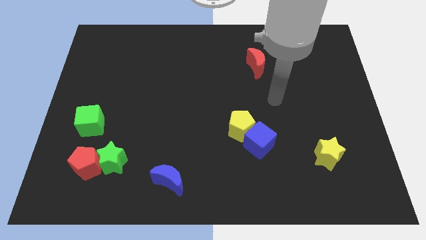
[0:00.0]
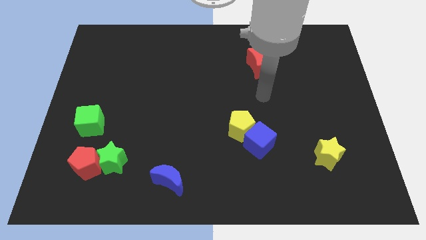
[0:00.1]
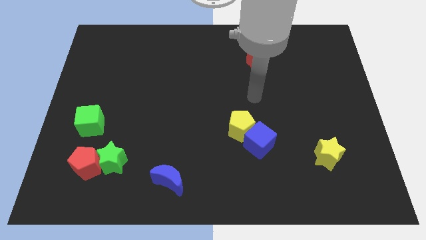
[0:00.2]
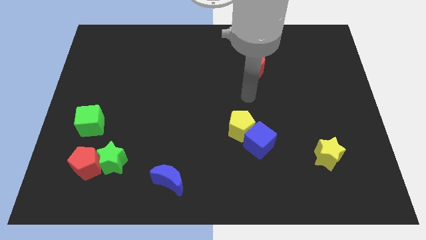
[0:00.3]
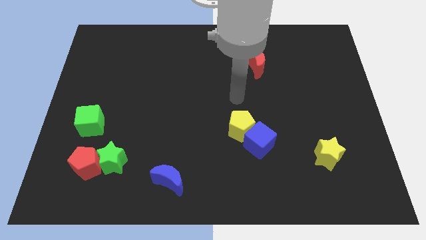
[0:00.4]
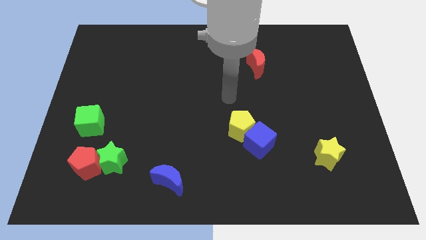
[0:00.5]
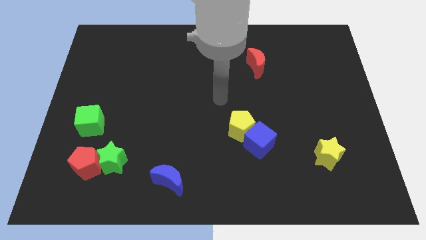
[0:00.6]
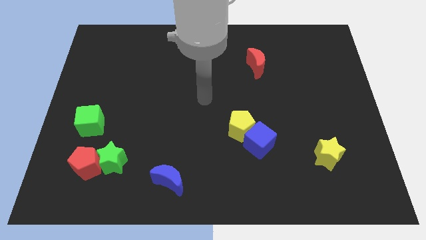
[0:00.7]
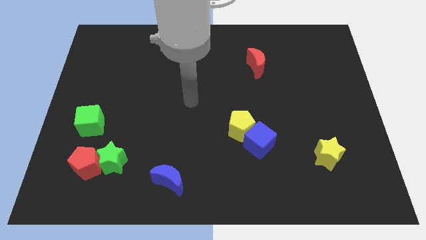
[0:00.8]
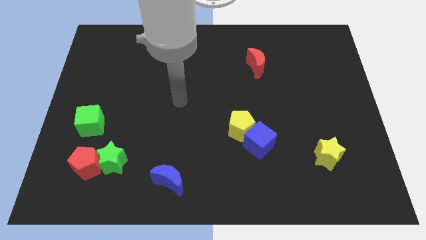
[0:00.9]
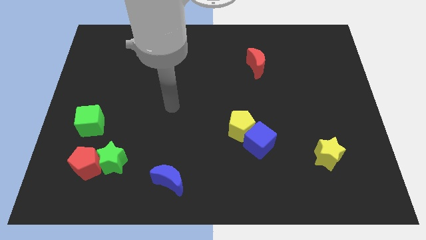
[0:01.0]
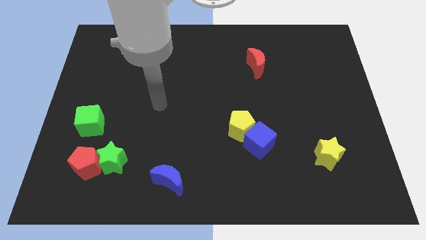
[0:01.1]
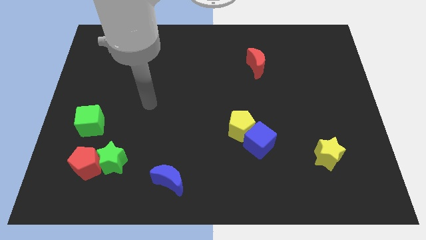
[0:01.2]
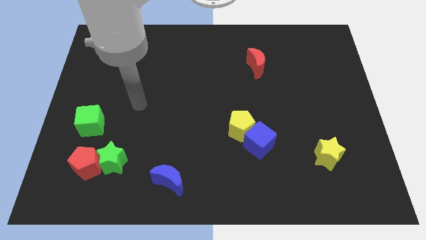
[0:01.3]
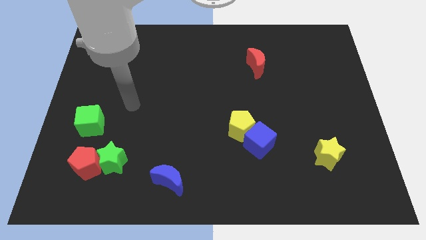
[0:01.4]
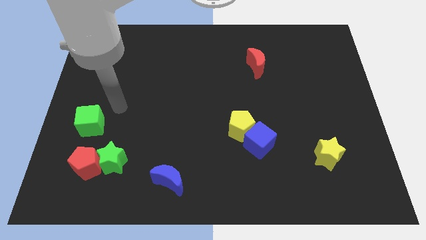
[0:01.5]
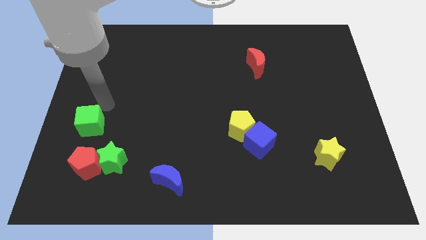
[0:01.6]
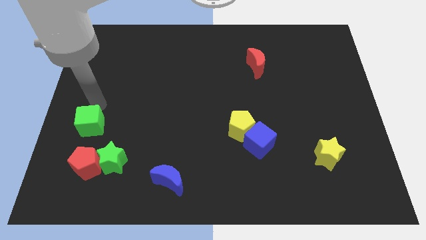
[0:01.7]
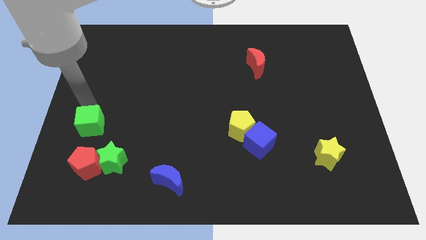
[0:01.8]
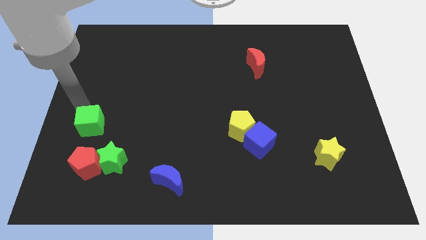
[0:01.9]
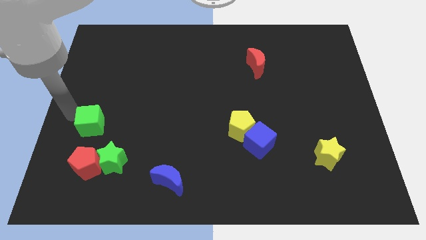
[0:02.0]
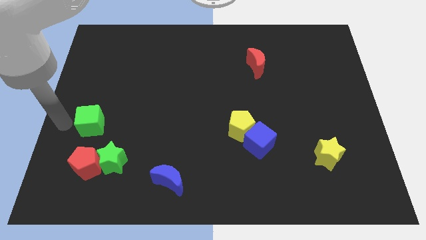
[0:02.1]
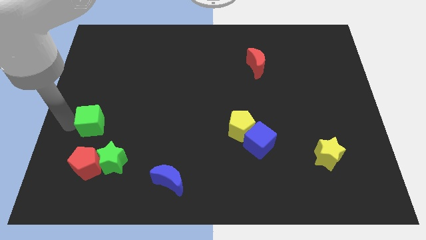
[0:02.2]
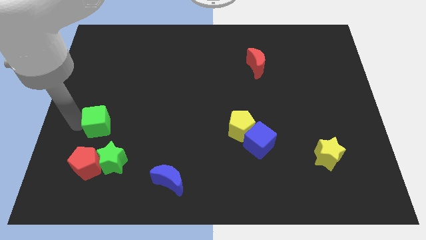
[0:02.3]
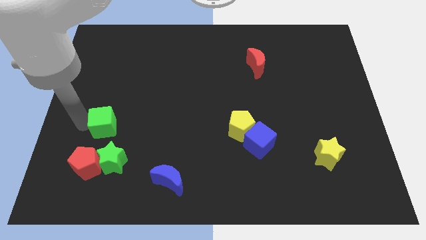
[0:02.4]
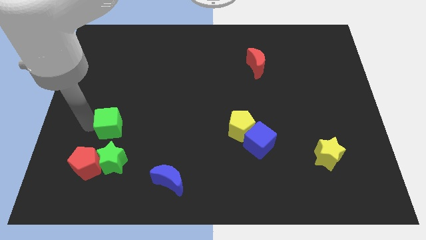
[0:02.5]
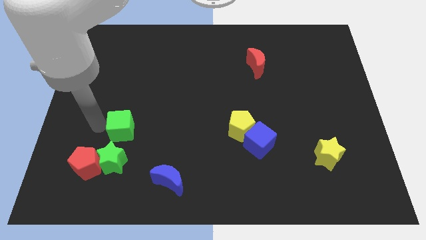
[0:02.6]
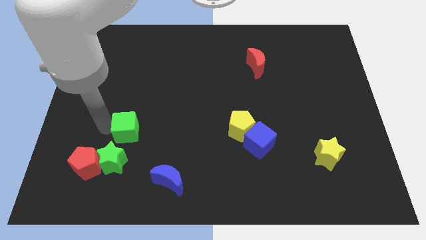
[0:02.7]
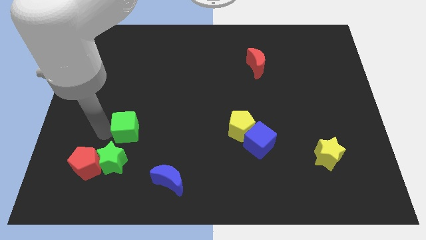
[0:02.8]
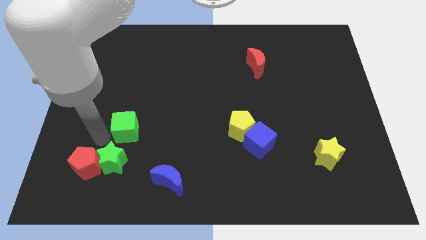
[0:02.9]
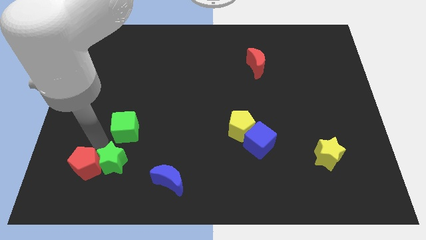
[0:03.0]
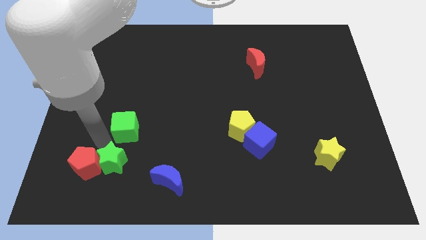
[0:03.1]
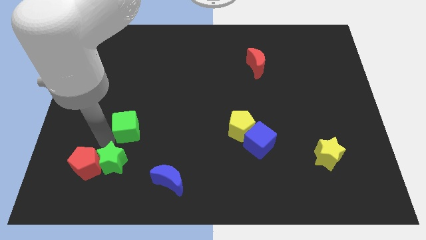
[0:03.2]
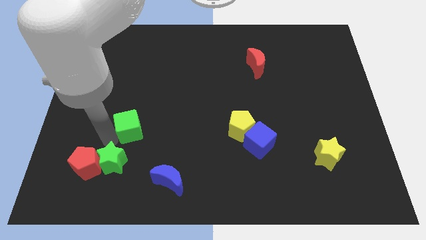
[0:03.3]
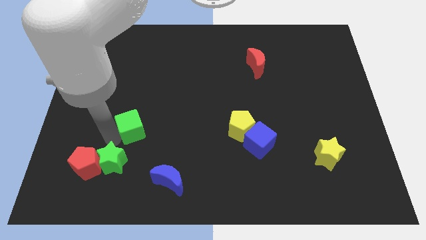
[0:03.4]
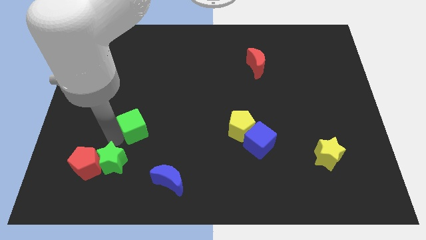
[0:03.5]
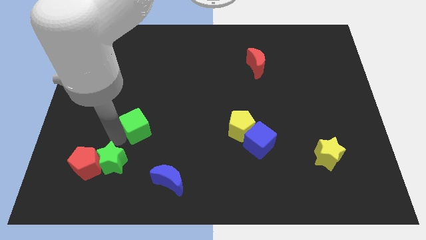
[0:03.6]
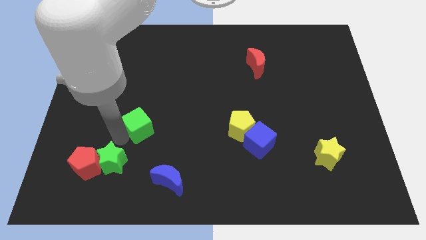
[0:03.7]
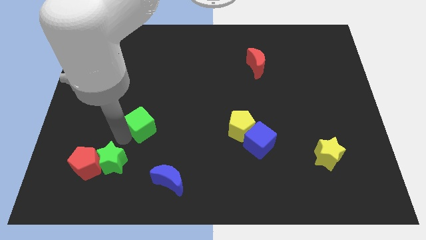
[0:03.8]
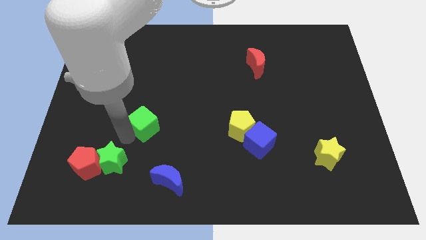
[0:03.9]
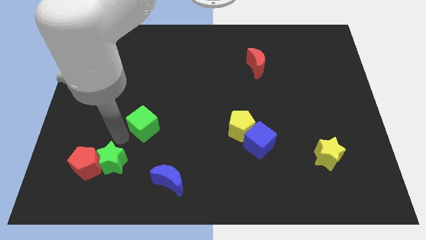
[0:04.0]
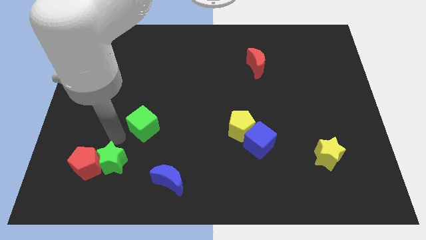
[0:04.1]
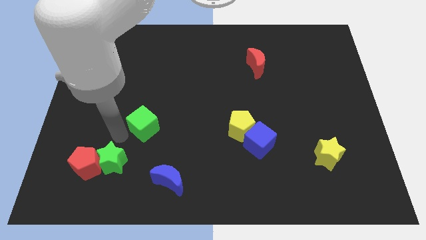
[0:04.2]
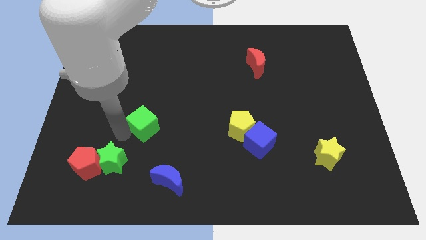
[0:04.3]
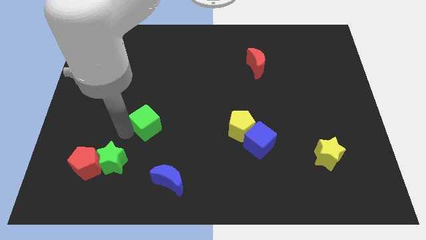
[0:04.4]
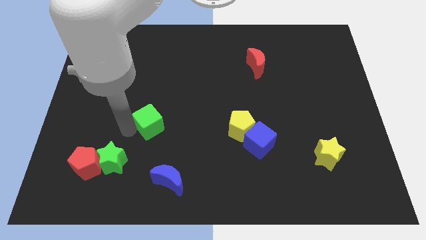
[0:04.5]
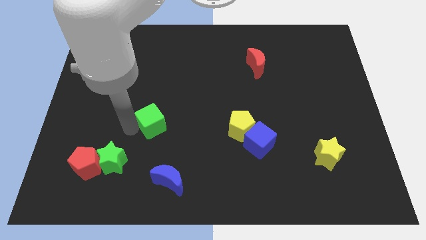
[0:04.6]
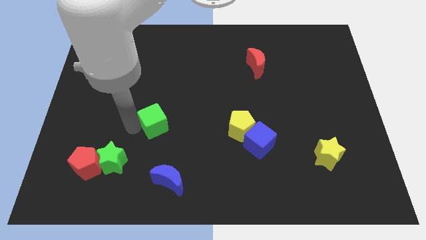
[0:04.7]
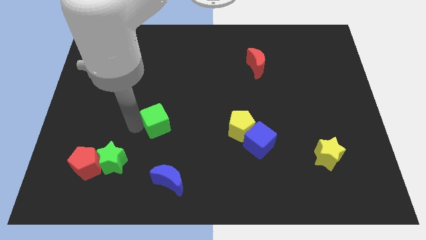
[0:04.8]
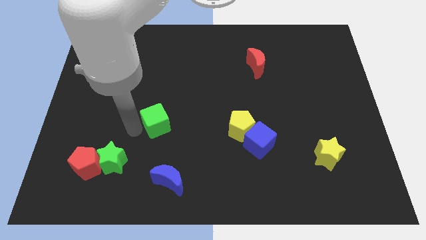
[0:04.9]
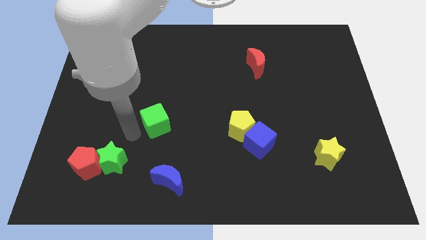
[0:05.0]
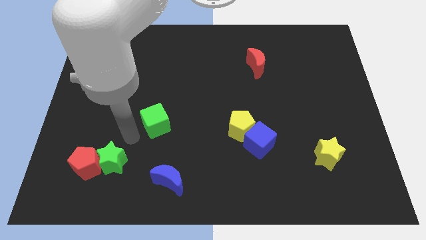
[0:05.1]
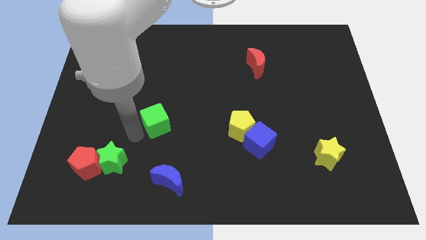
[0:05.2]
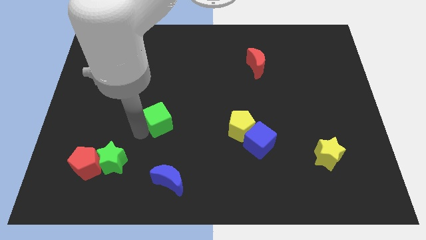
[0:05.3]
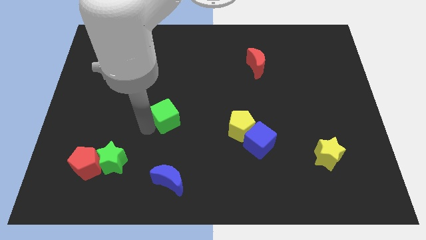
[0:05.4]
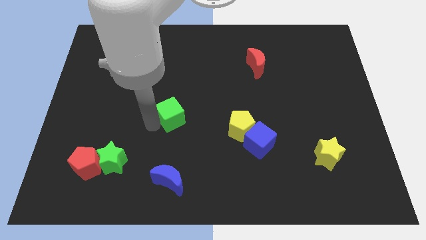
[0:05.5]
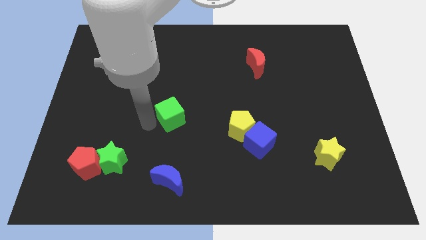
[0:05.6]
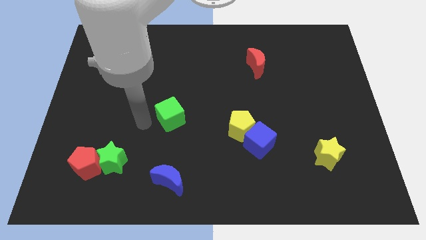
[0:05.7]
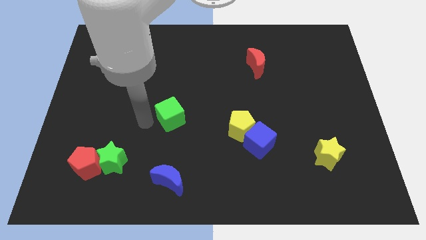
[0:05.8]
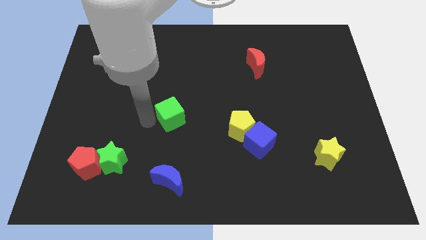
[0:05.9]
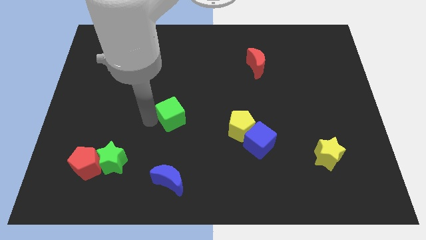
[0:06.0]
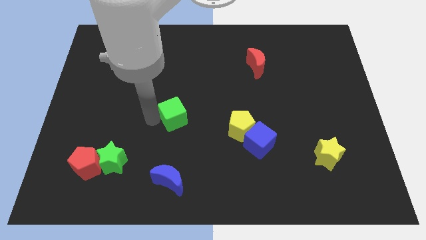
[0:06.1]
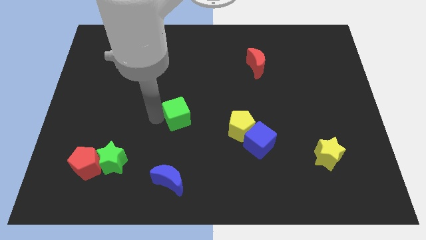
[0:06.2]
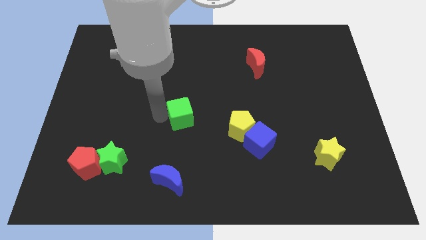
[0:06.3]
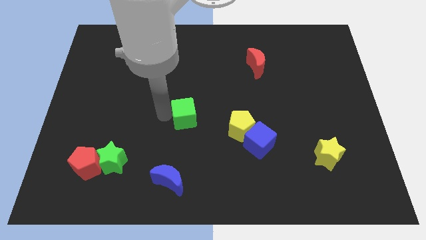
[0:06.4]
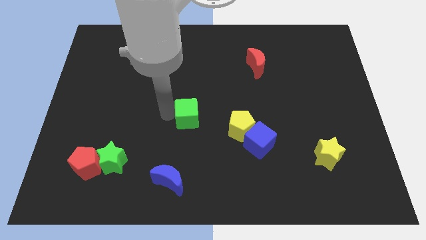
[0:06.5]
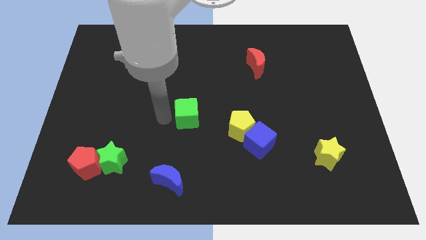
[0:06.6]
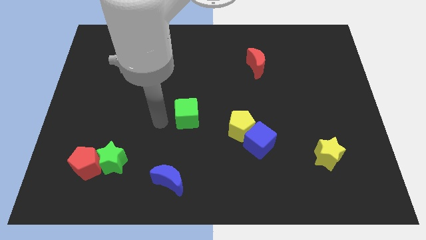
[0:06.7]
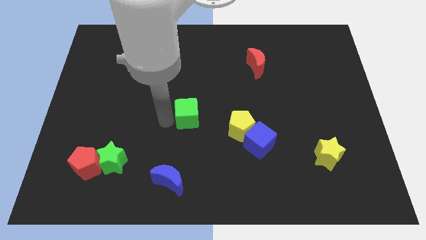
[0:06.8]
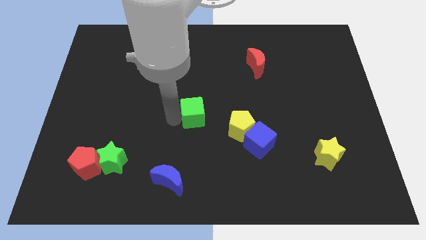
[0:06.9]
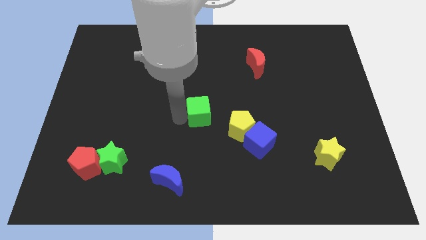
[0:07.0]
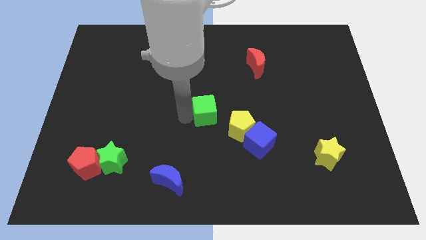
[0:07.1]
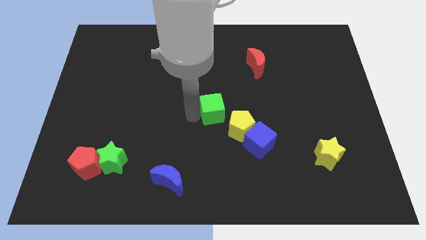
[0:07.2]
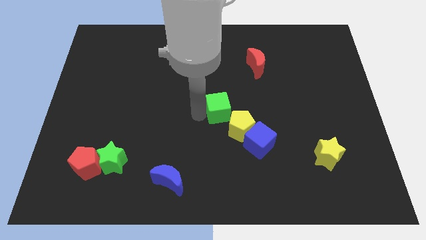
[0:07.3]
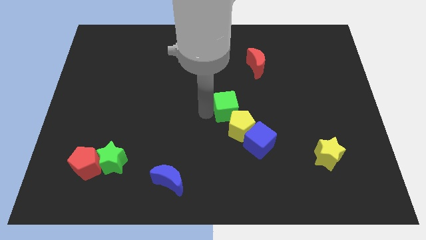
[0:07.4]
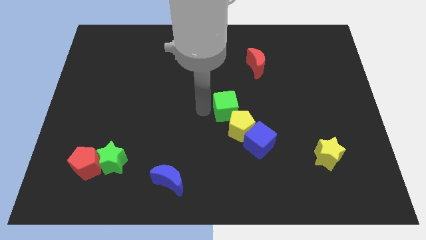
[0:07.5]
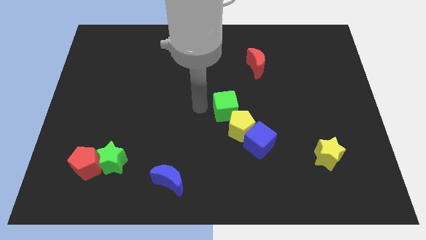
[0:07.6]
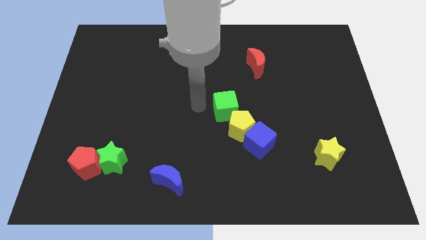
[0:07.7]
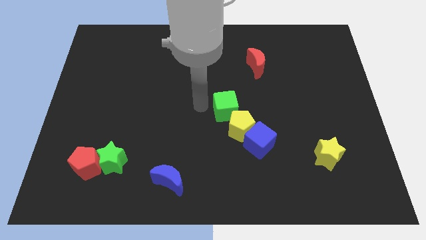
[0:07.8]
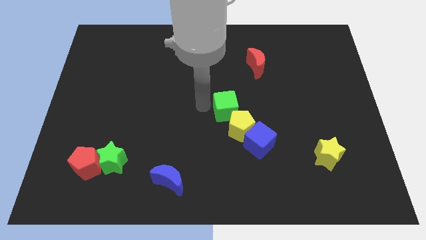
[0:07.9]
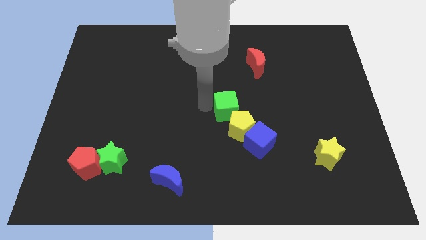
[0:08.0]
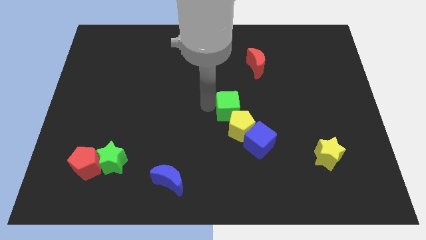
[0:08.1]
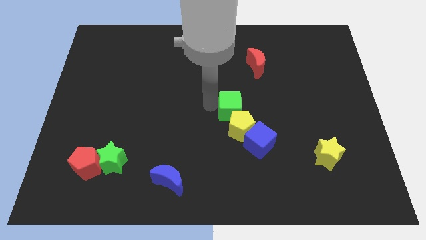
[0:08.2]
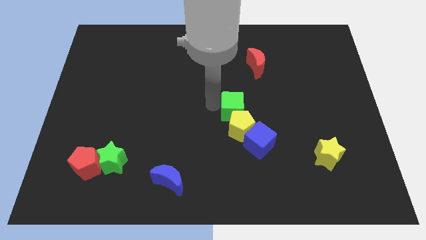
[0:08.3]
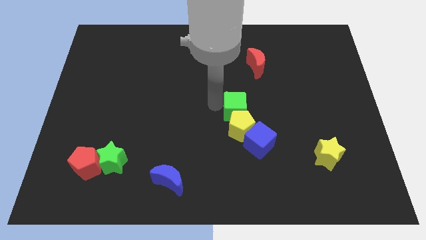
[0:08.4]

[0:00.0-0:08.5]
put the green cube diagonally up and to the right of the yellow pentagon
